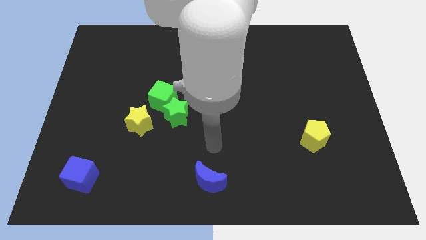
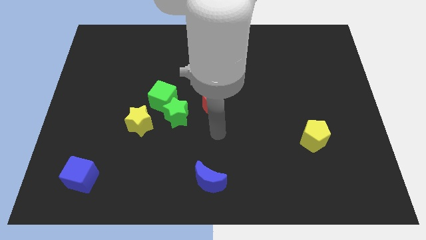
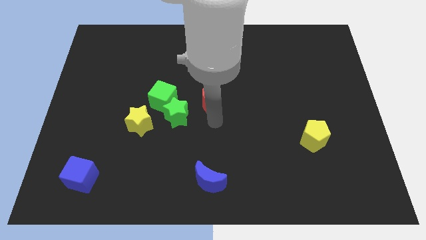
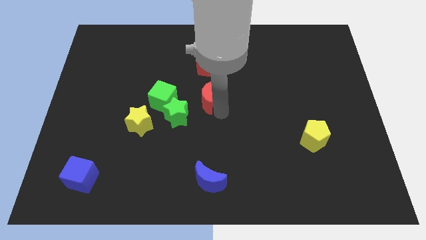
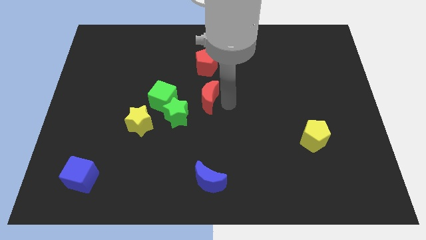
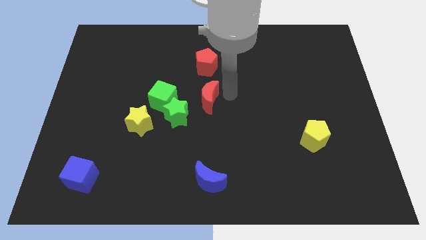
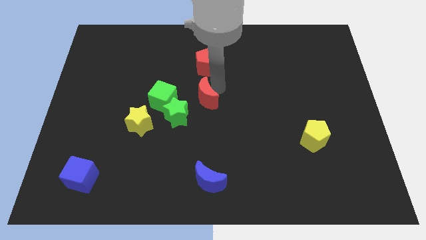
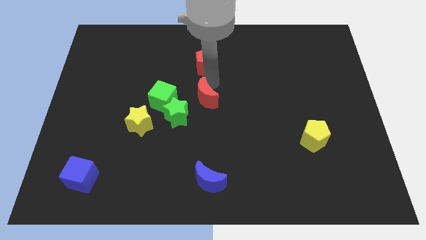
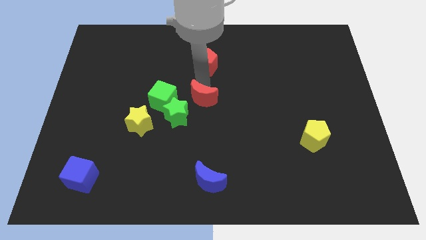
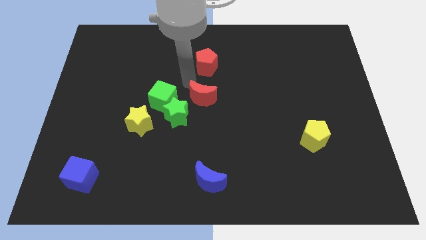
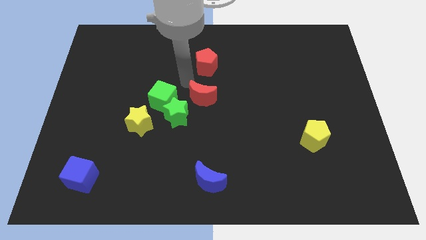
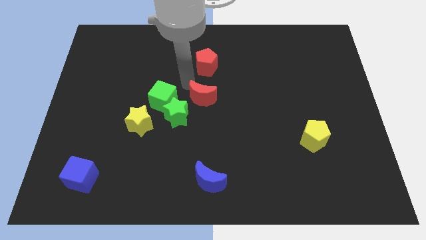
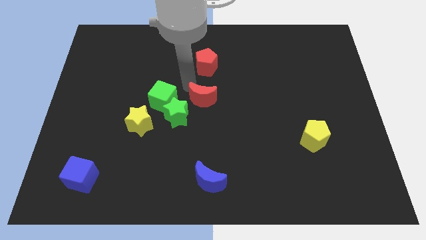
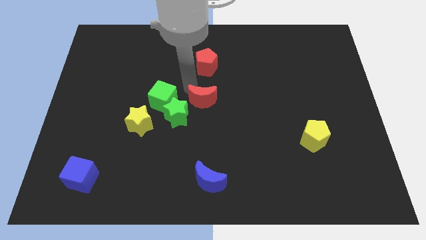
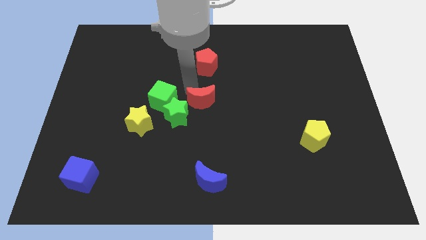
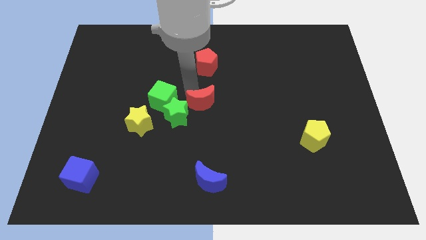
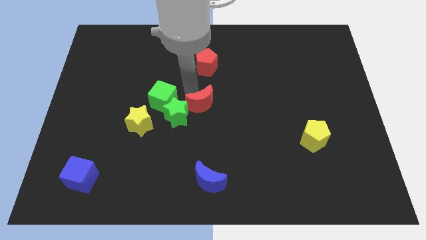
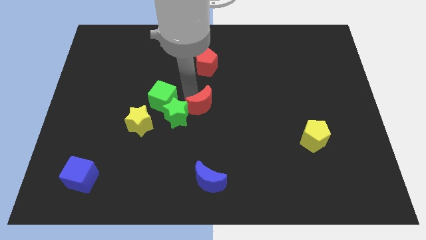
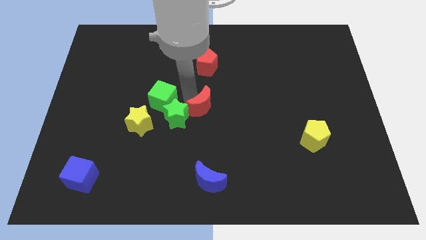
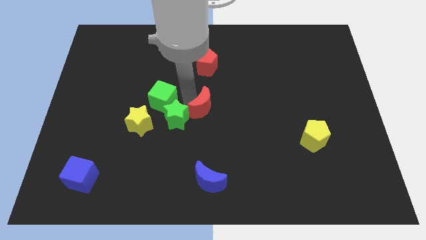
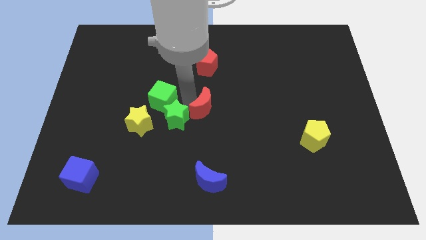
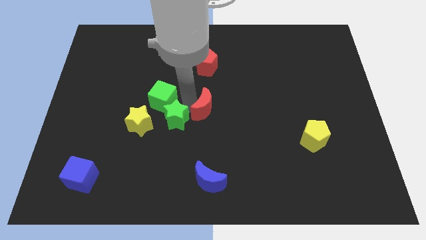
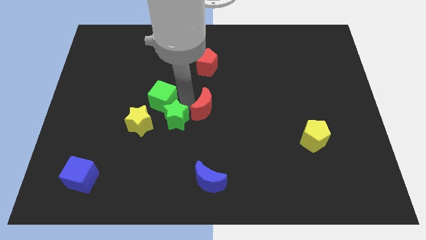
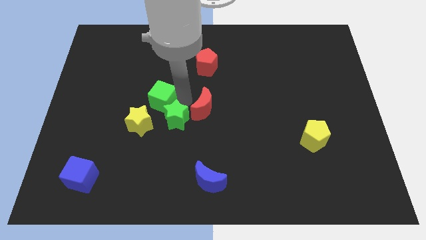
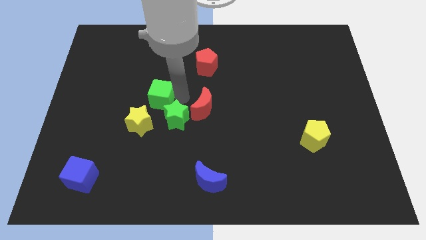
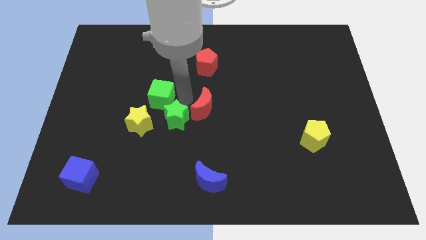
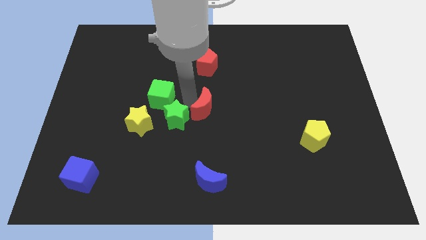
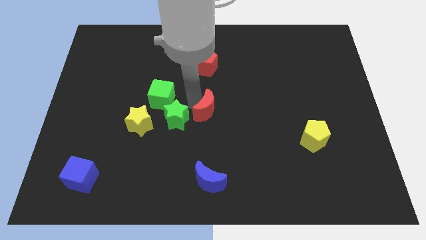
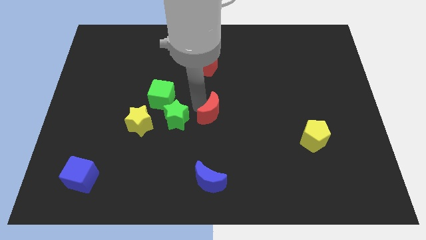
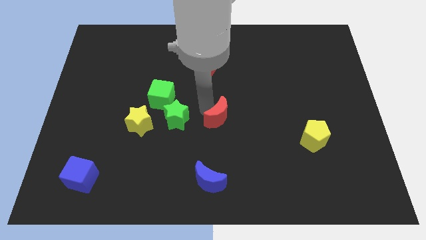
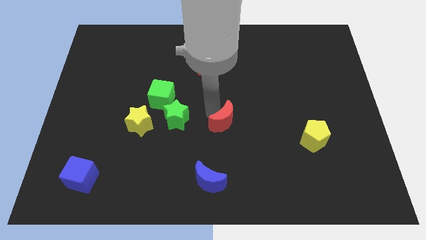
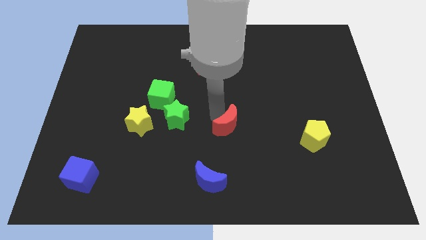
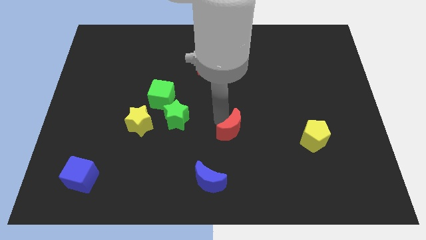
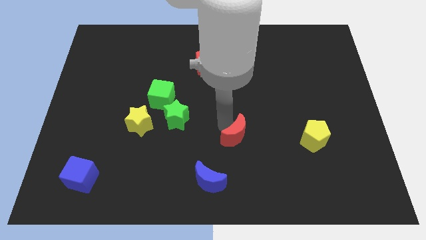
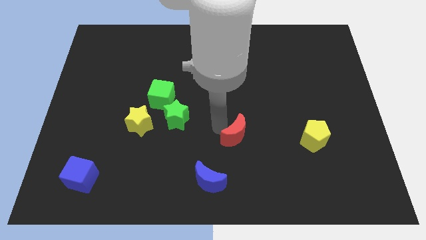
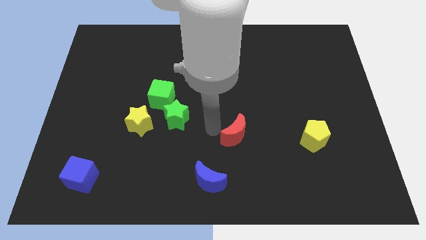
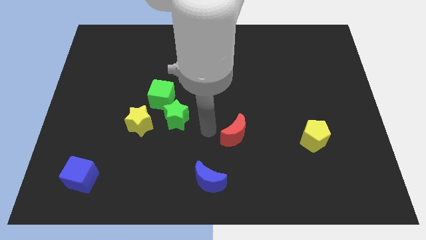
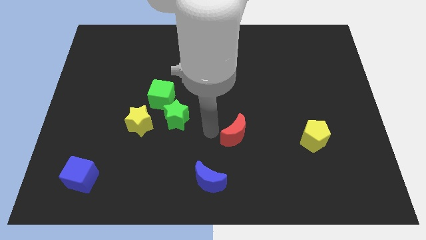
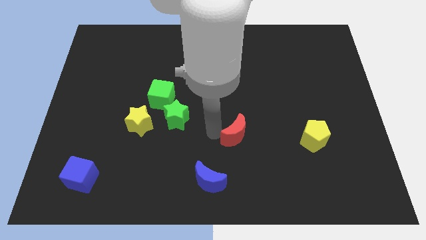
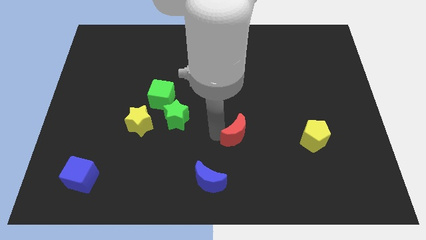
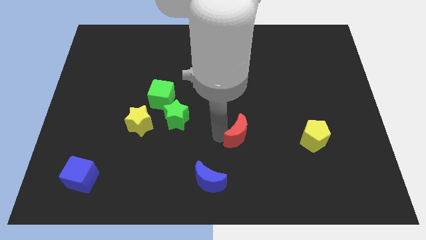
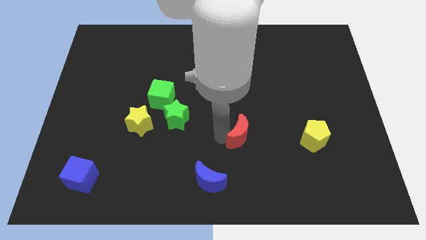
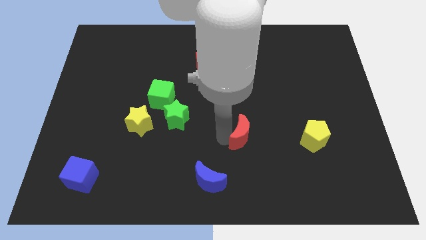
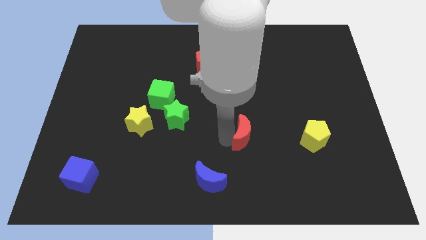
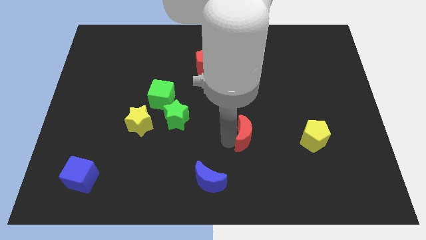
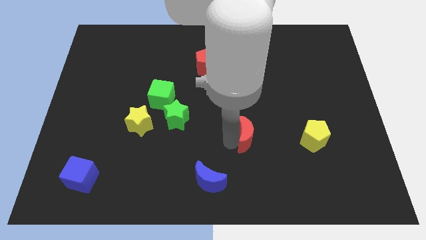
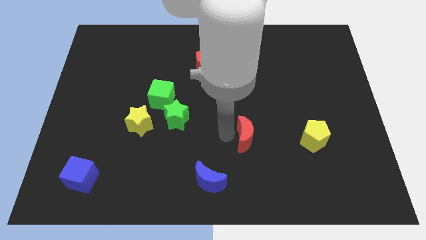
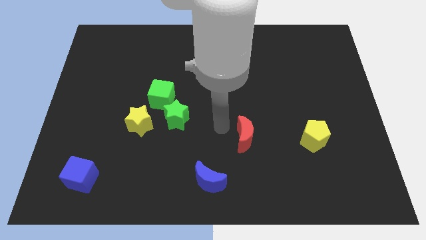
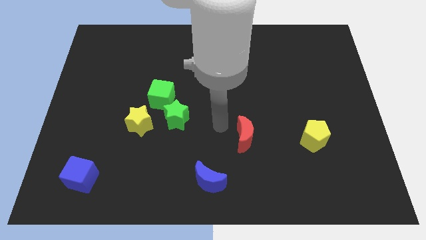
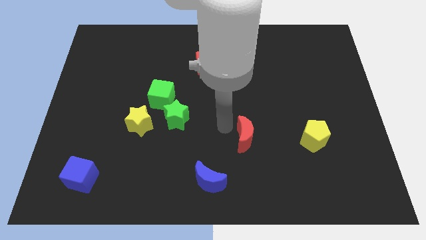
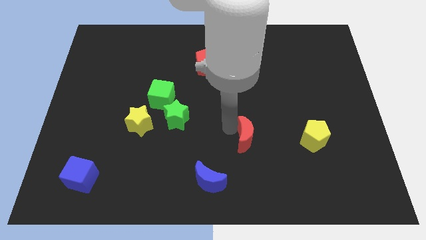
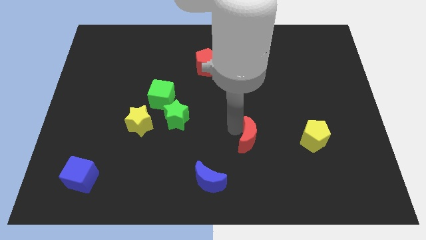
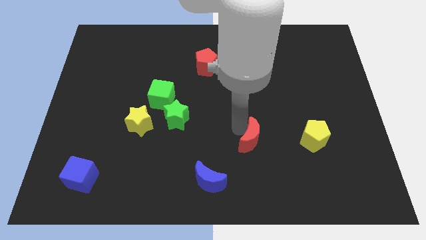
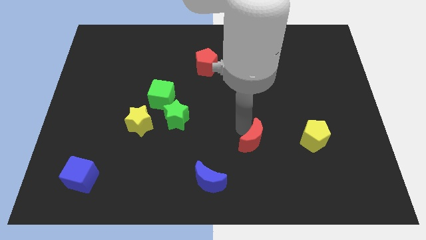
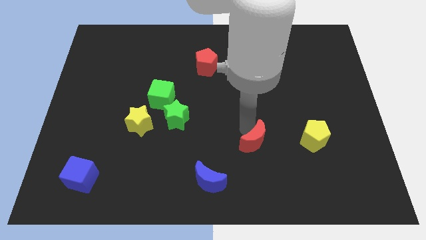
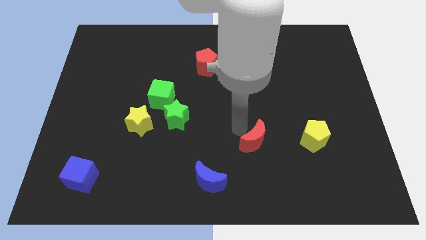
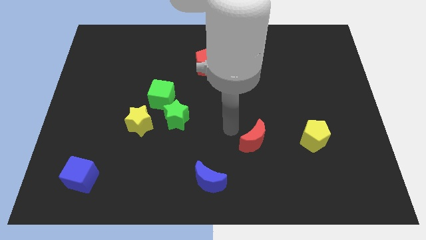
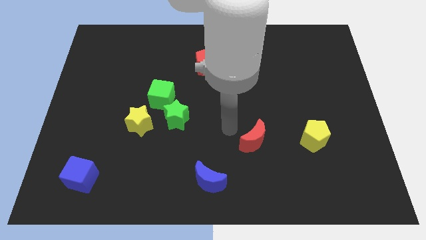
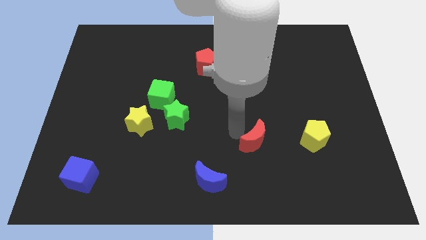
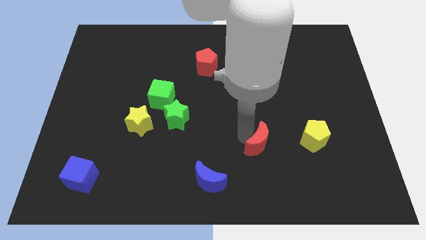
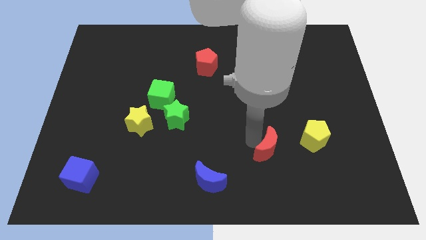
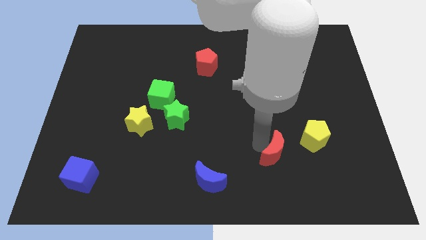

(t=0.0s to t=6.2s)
move the red moon to the bottom left side of the yellow pentagon

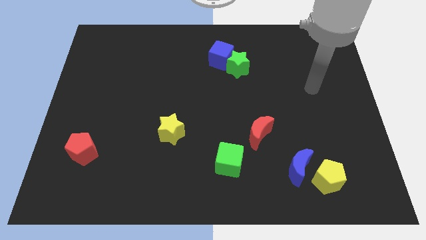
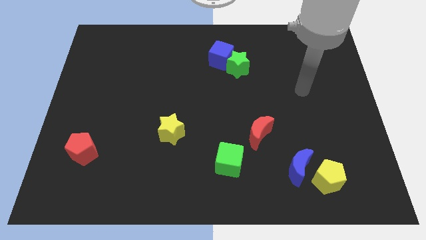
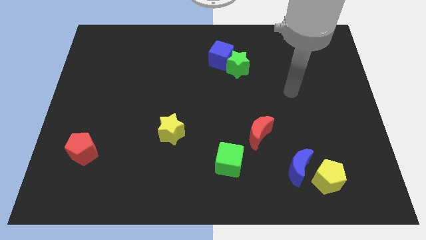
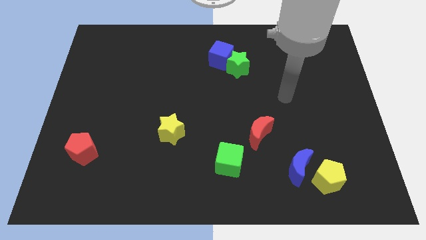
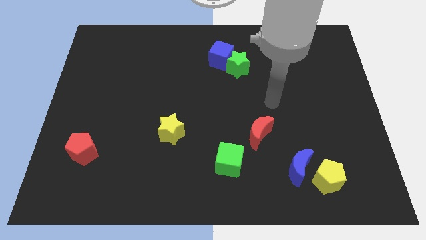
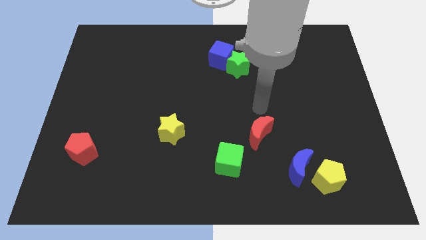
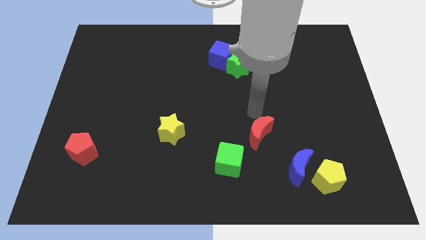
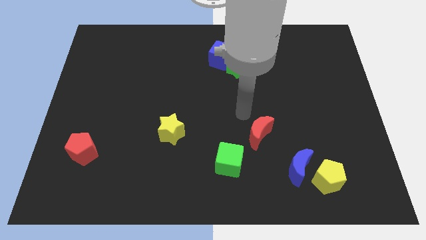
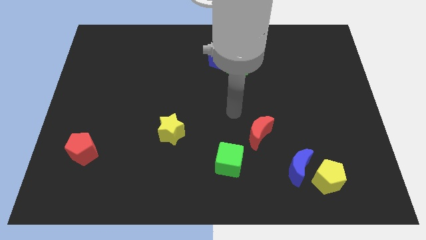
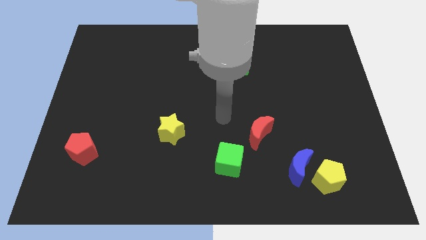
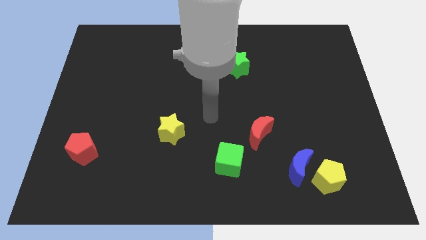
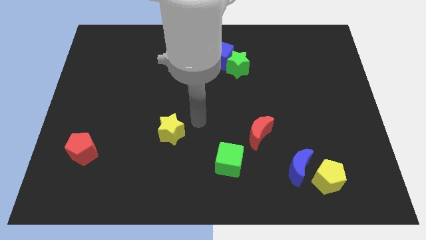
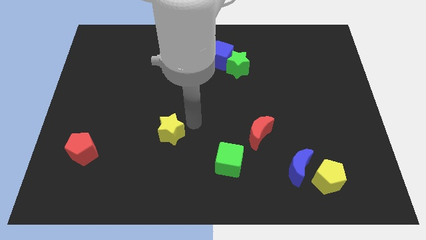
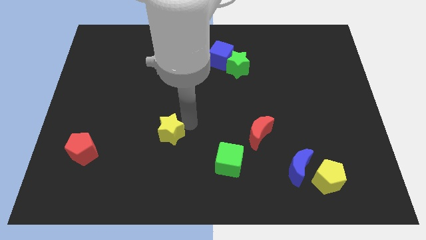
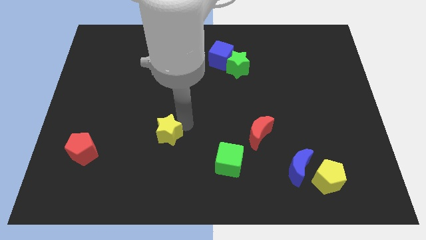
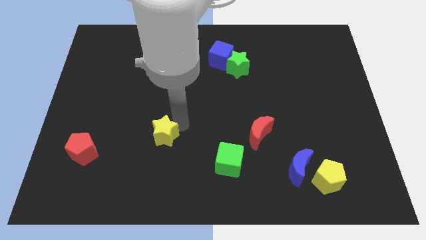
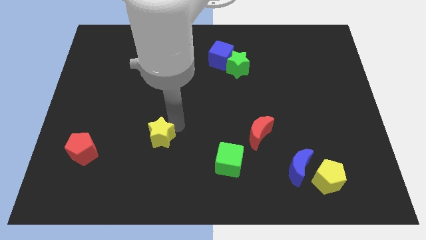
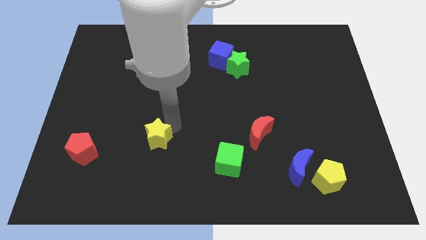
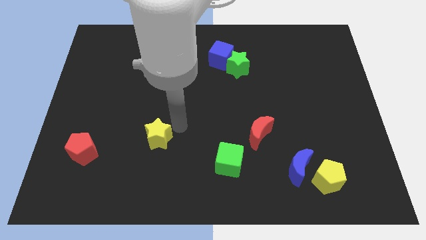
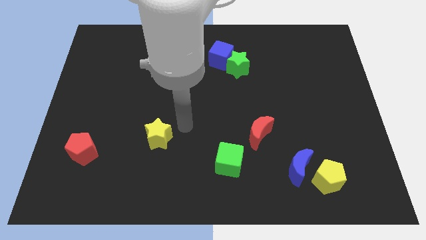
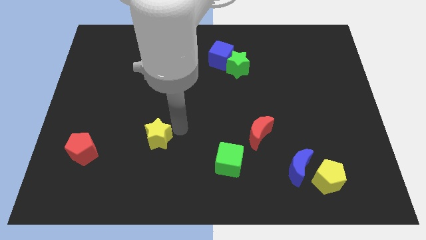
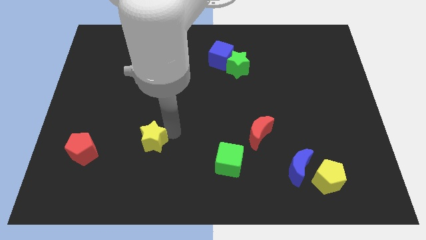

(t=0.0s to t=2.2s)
move the yellow star to the right of the red pentagon
